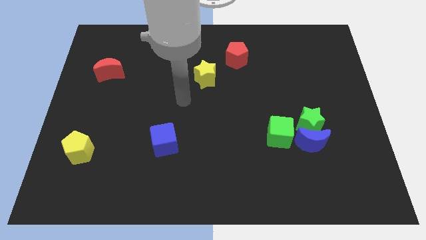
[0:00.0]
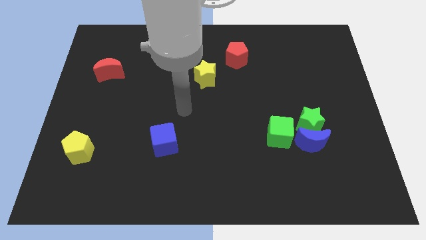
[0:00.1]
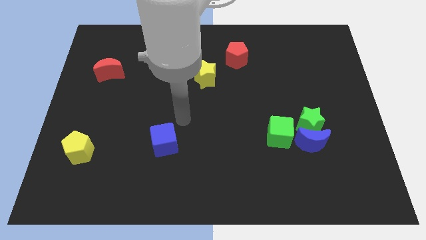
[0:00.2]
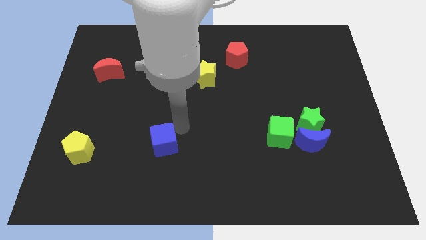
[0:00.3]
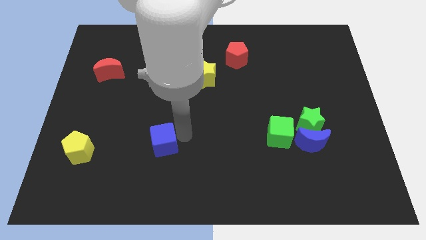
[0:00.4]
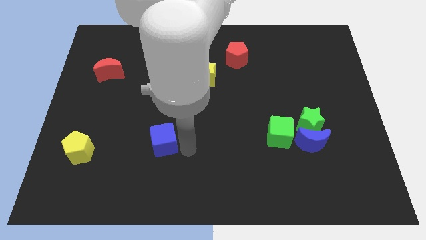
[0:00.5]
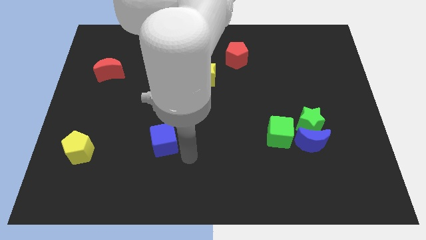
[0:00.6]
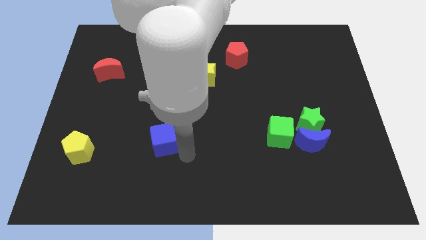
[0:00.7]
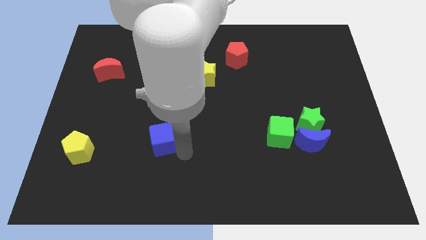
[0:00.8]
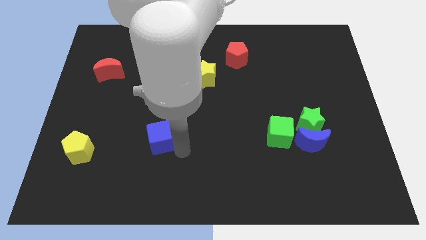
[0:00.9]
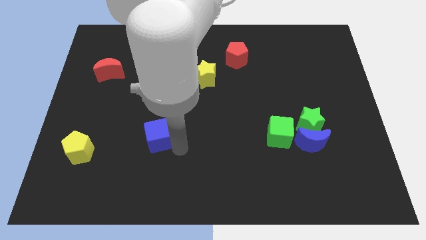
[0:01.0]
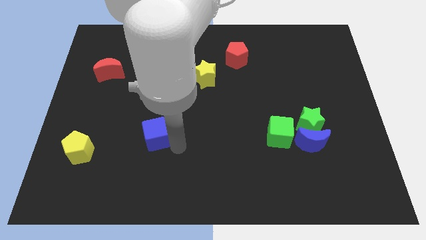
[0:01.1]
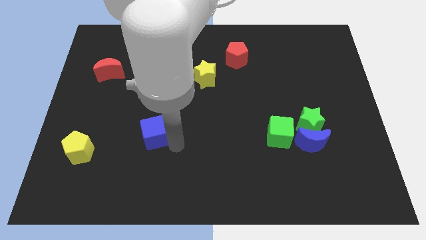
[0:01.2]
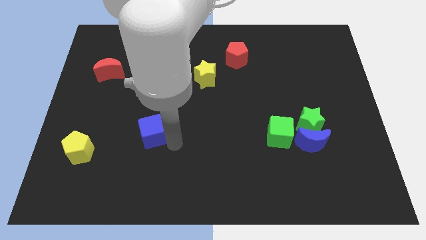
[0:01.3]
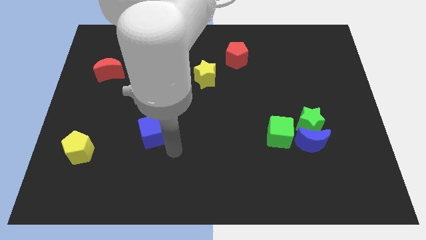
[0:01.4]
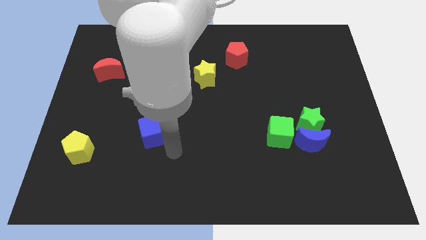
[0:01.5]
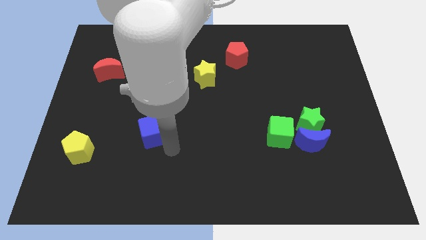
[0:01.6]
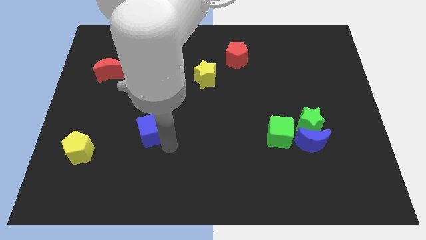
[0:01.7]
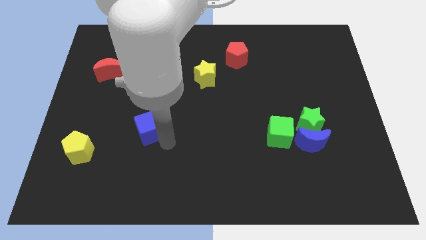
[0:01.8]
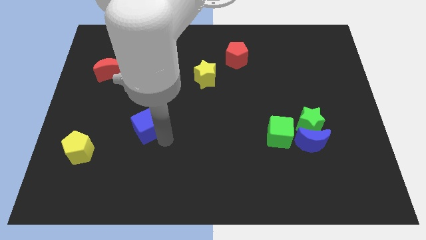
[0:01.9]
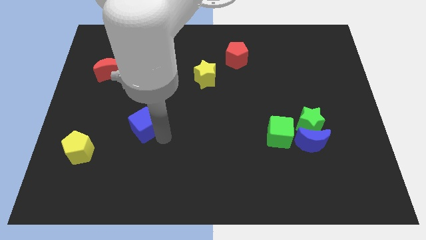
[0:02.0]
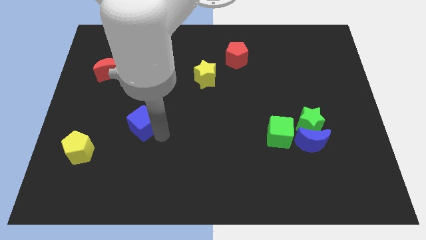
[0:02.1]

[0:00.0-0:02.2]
move the blue cube a bit up and left

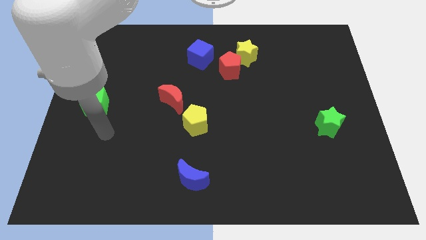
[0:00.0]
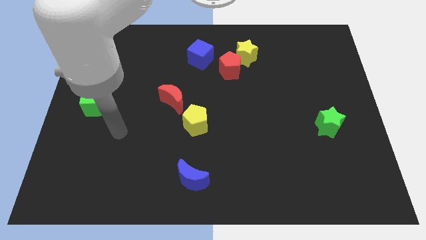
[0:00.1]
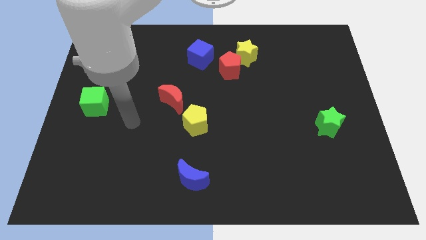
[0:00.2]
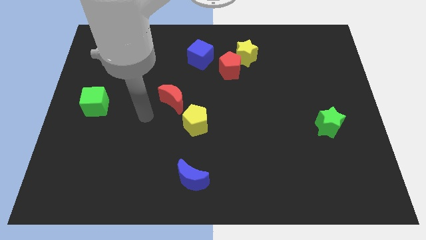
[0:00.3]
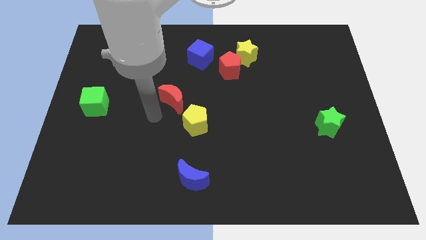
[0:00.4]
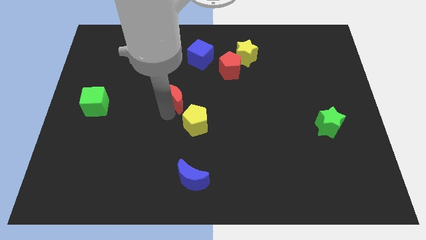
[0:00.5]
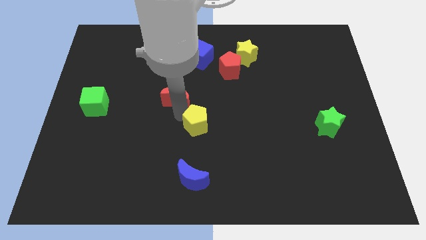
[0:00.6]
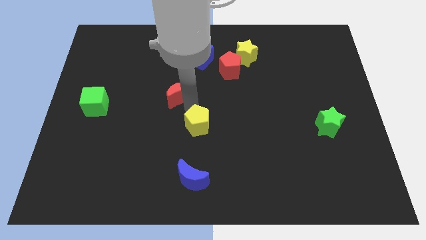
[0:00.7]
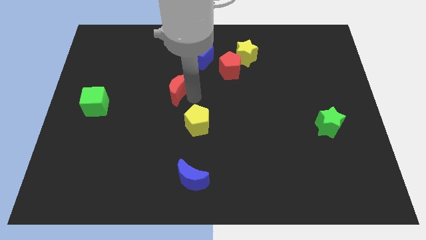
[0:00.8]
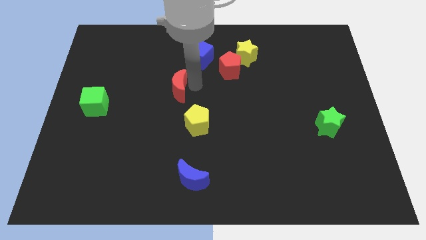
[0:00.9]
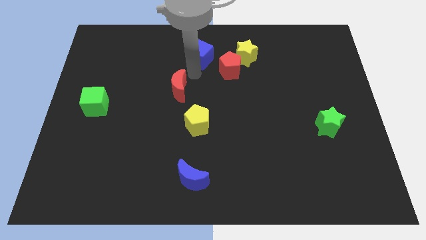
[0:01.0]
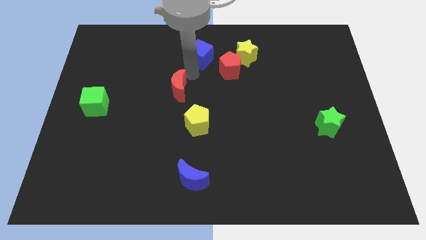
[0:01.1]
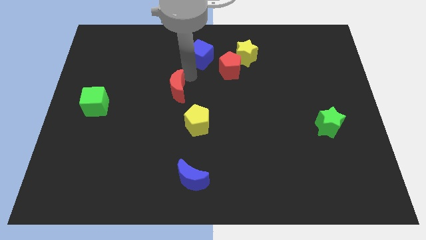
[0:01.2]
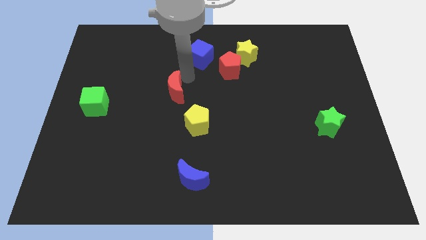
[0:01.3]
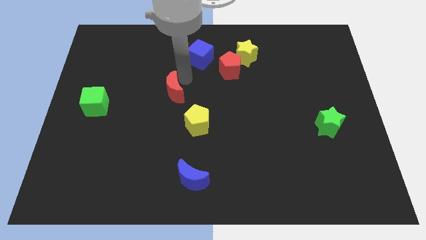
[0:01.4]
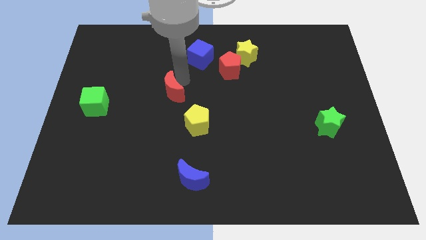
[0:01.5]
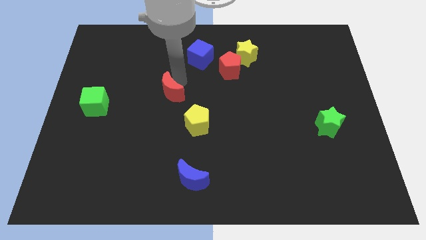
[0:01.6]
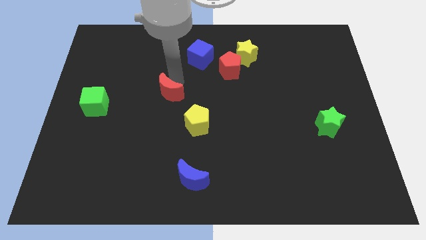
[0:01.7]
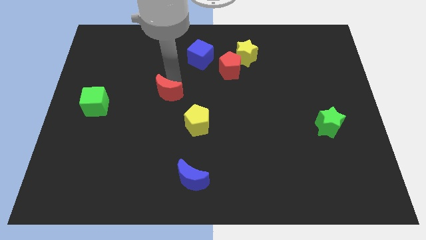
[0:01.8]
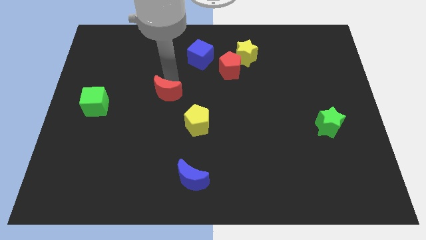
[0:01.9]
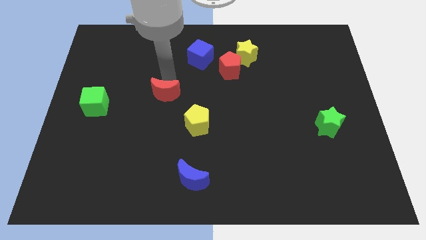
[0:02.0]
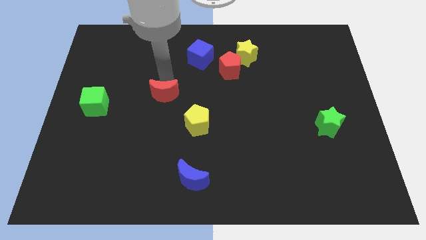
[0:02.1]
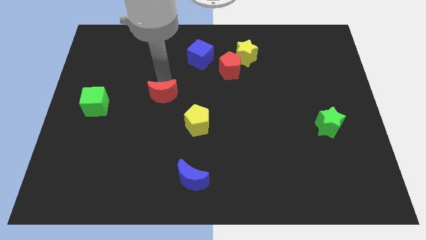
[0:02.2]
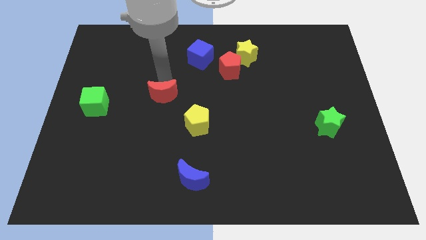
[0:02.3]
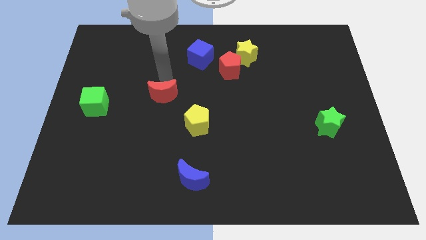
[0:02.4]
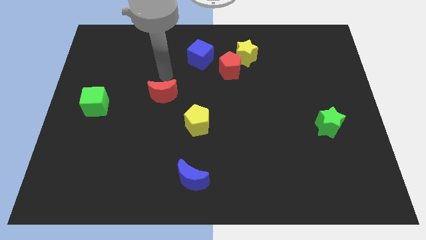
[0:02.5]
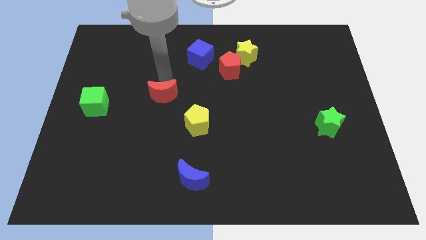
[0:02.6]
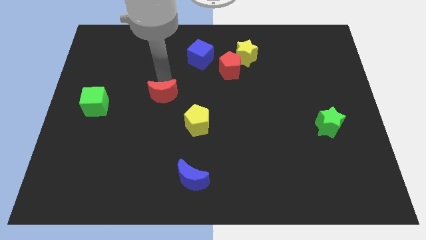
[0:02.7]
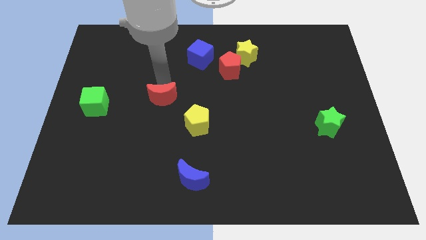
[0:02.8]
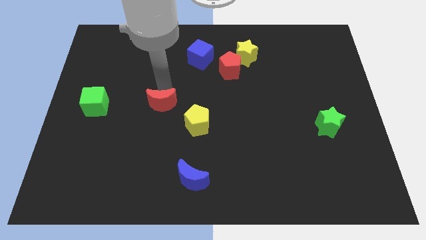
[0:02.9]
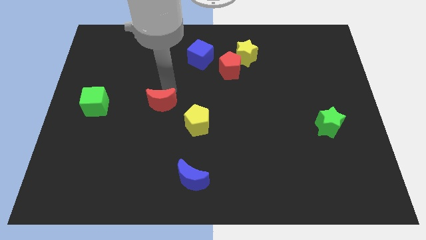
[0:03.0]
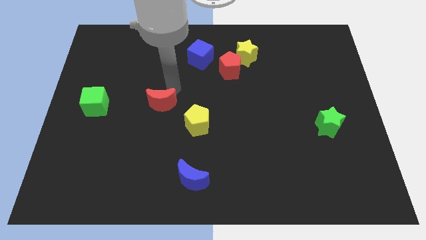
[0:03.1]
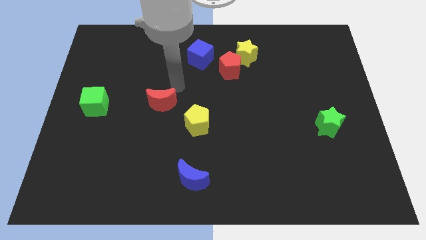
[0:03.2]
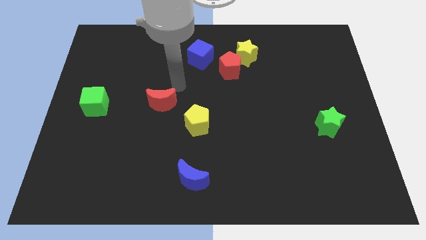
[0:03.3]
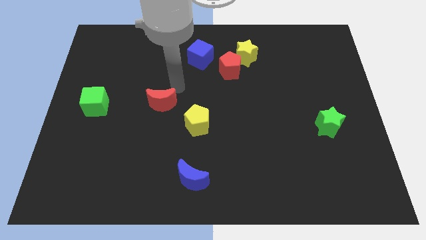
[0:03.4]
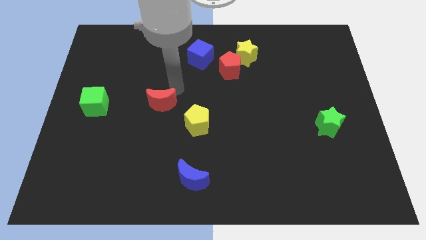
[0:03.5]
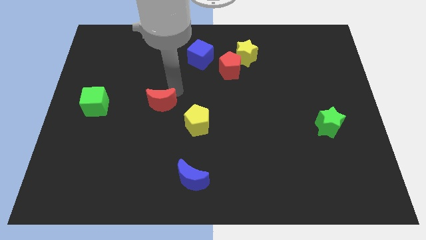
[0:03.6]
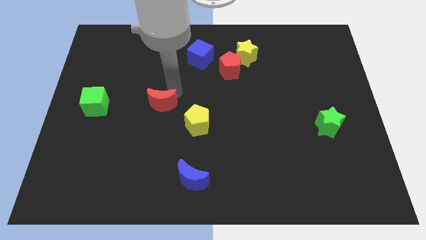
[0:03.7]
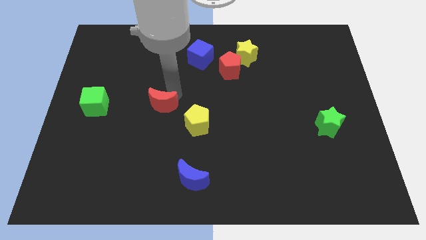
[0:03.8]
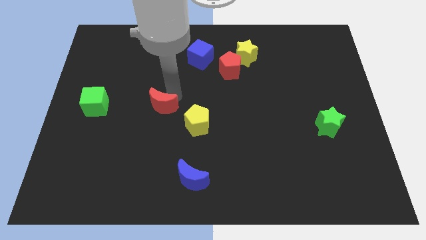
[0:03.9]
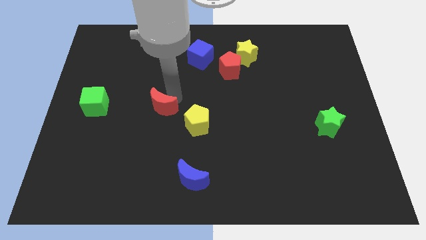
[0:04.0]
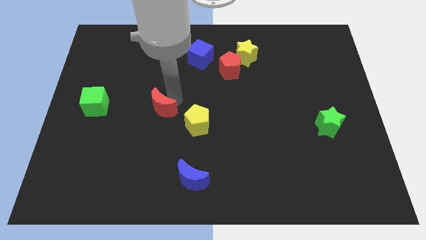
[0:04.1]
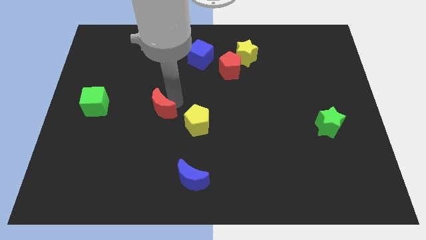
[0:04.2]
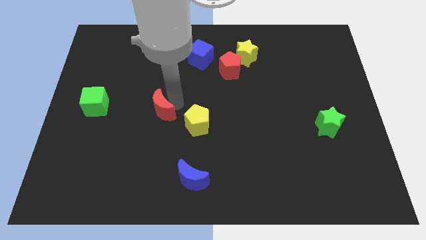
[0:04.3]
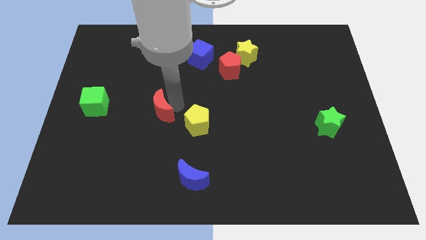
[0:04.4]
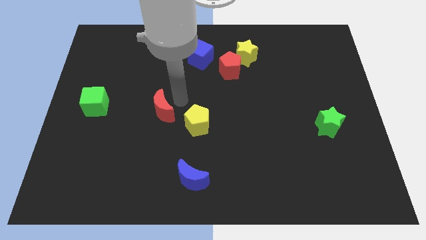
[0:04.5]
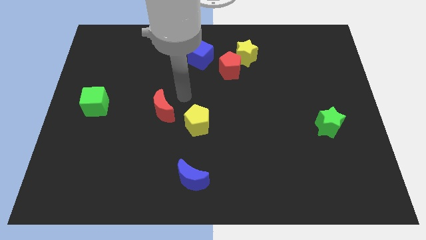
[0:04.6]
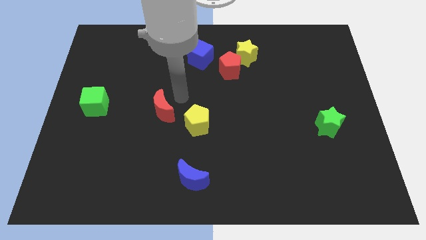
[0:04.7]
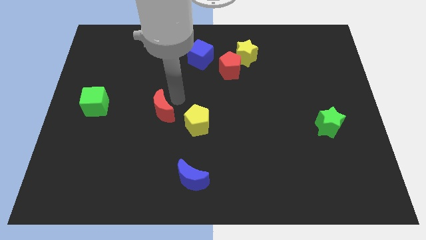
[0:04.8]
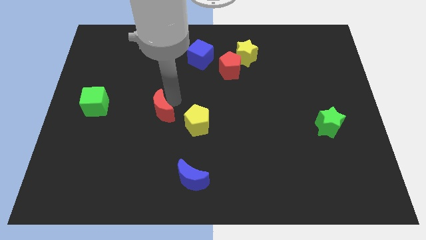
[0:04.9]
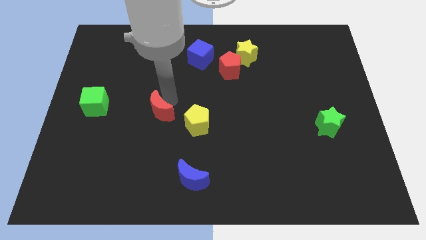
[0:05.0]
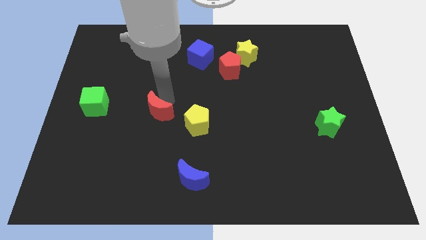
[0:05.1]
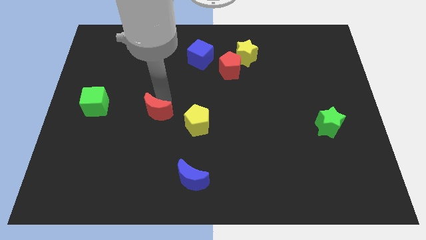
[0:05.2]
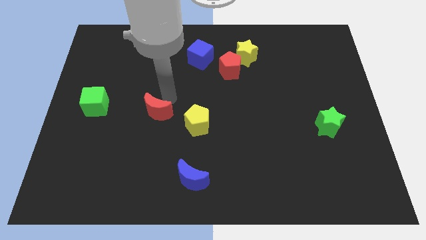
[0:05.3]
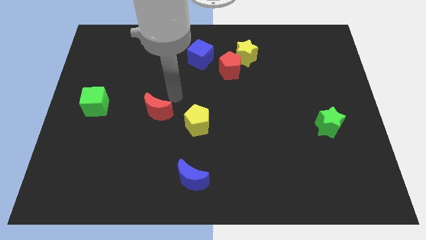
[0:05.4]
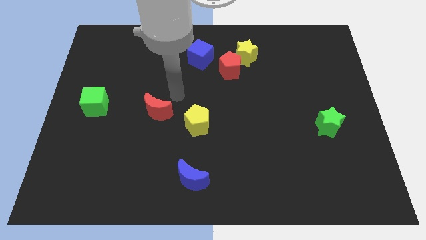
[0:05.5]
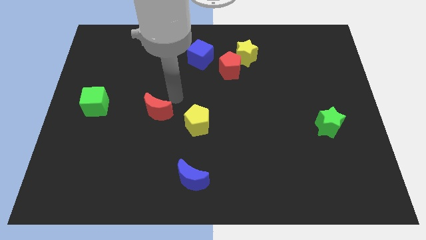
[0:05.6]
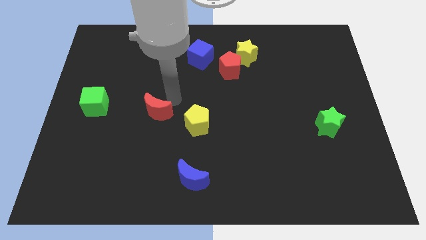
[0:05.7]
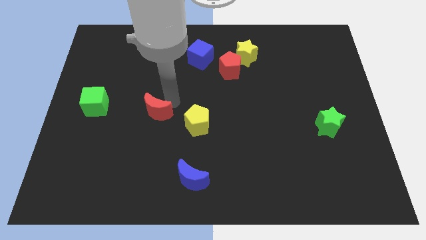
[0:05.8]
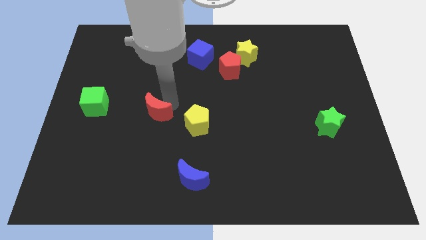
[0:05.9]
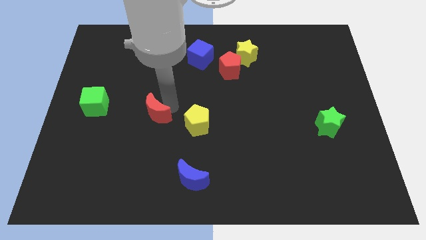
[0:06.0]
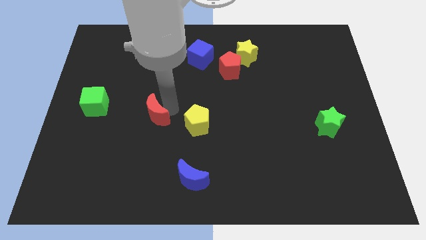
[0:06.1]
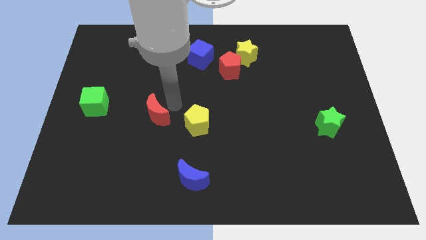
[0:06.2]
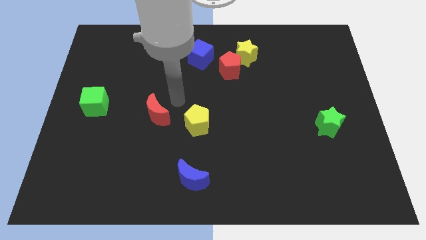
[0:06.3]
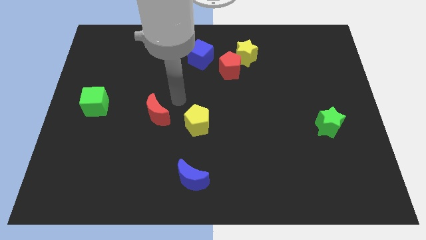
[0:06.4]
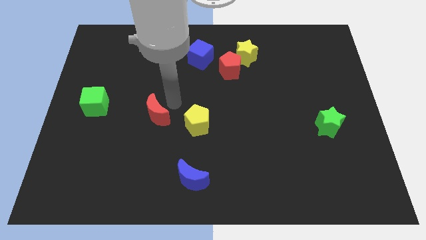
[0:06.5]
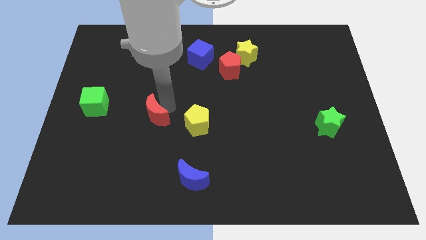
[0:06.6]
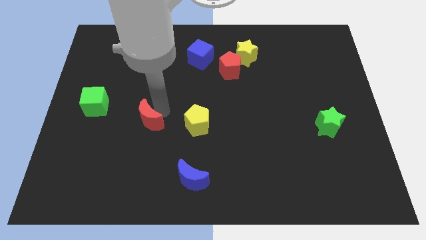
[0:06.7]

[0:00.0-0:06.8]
slightly slide the red moon downwards and then to the left
